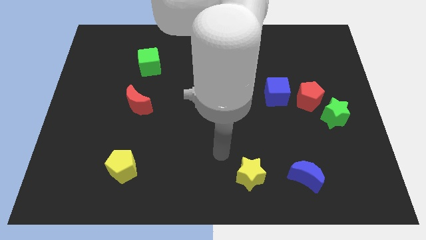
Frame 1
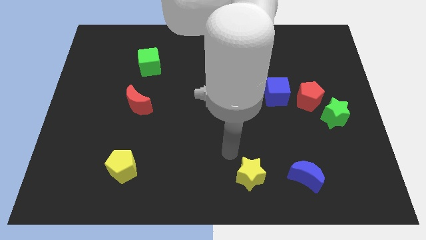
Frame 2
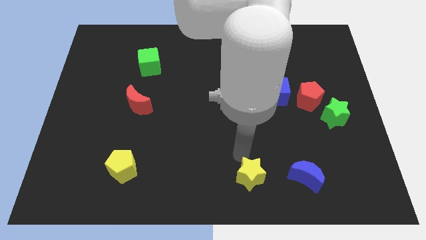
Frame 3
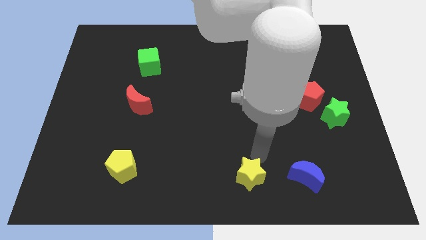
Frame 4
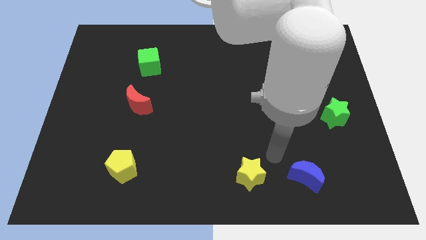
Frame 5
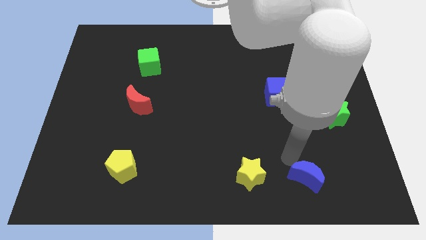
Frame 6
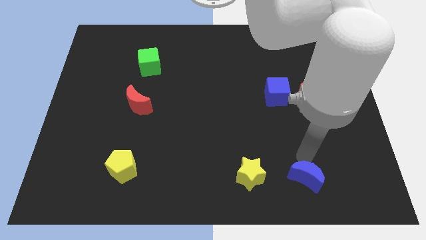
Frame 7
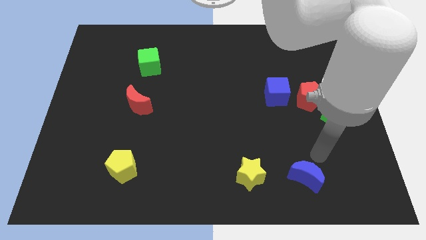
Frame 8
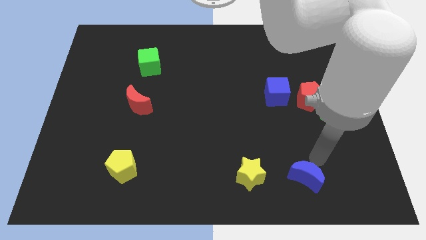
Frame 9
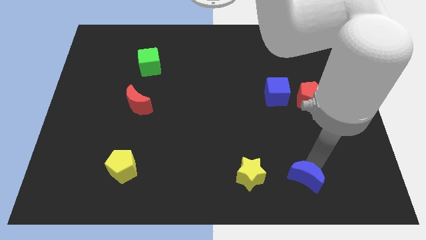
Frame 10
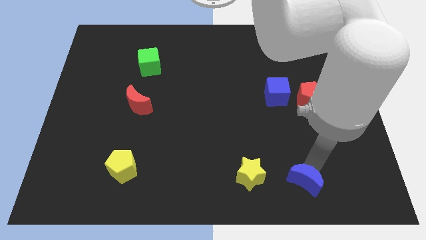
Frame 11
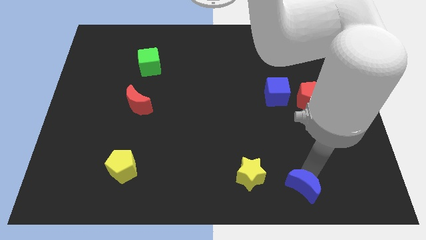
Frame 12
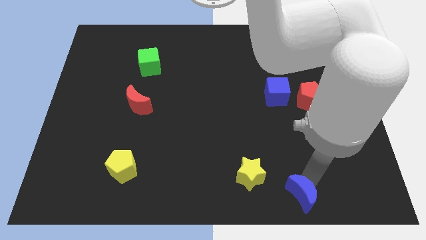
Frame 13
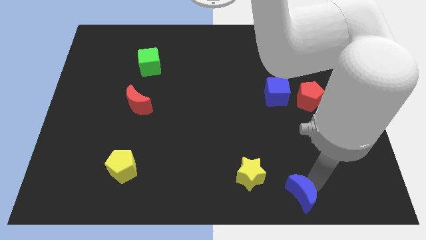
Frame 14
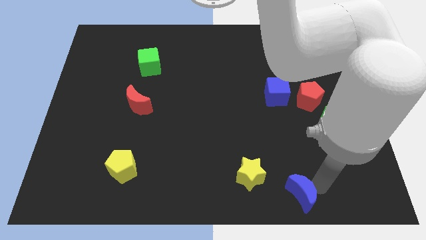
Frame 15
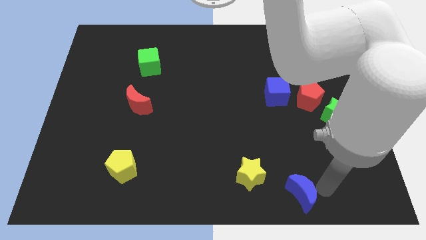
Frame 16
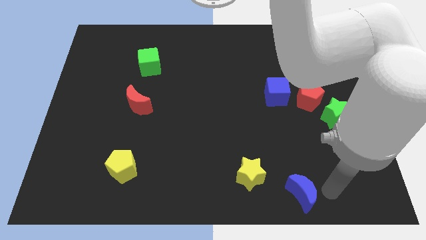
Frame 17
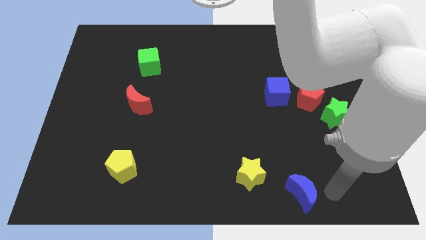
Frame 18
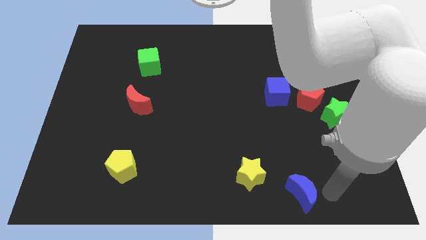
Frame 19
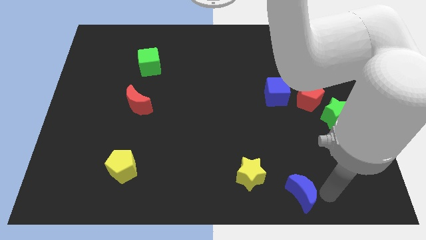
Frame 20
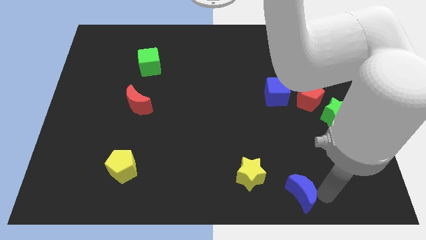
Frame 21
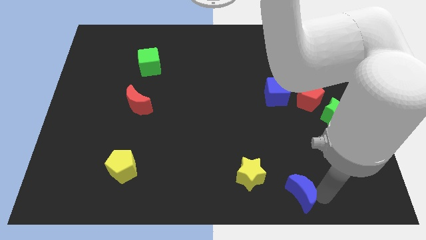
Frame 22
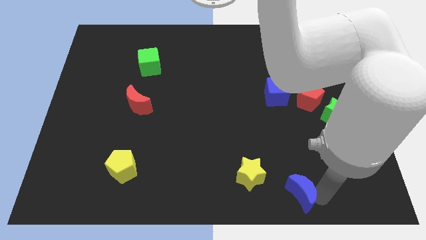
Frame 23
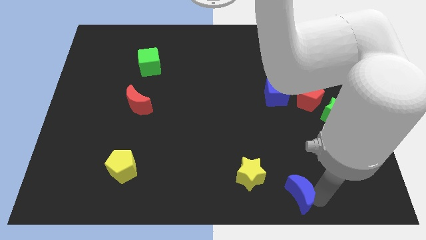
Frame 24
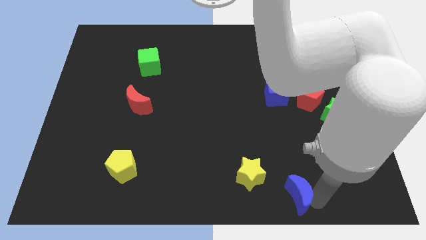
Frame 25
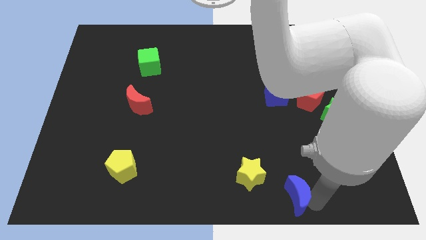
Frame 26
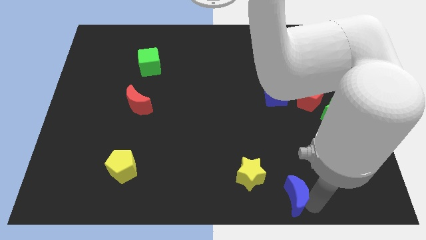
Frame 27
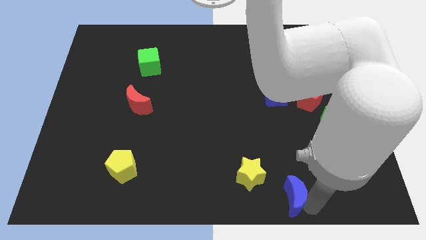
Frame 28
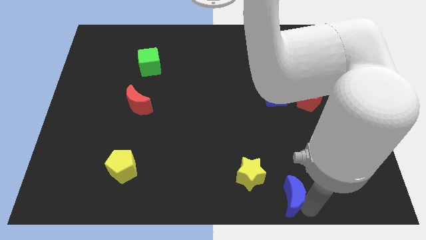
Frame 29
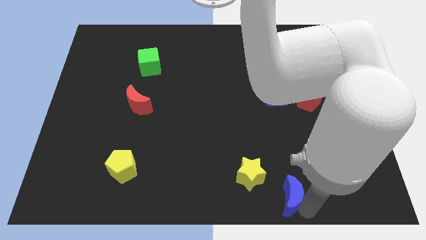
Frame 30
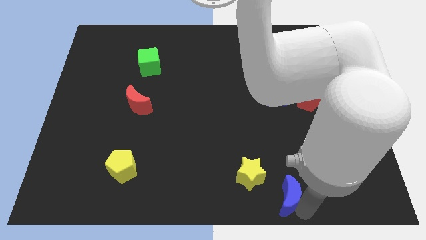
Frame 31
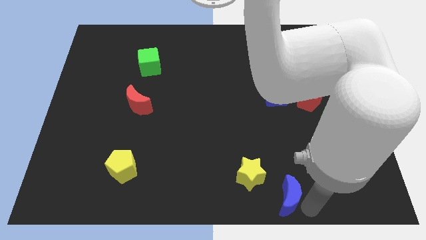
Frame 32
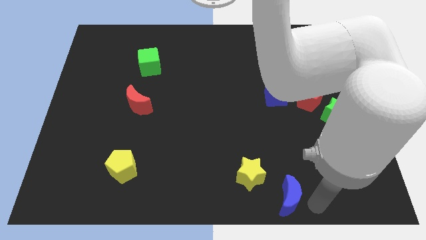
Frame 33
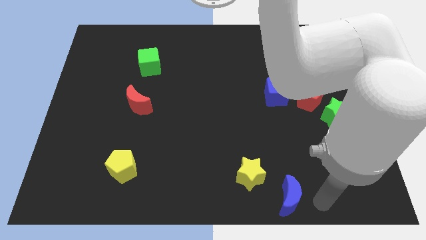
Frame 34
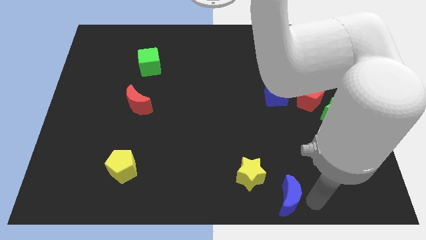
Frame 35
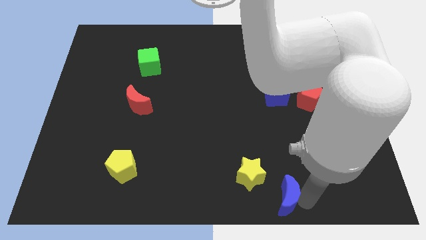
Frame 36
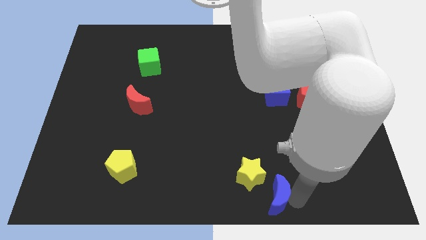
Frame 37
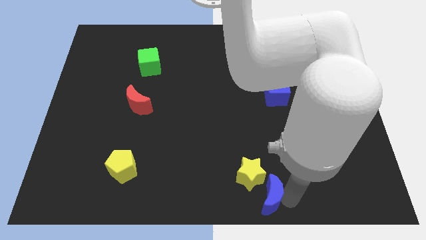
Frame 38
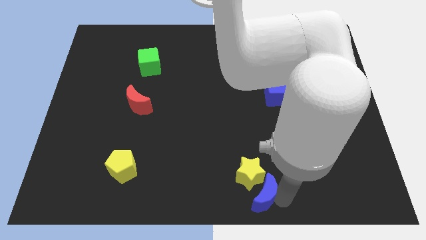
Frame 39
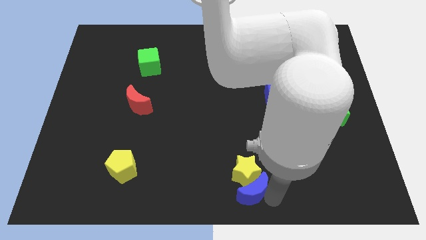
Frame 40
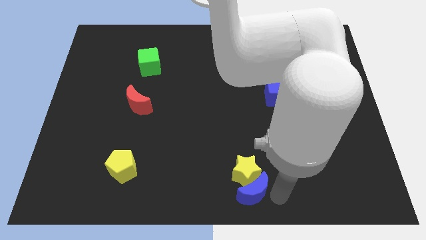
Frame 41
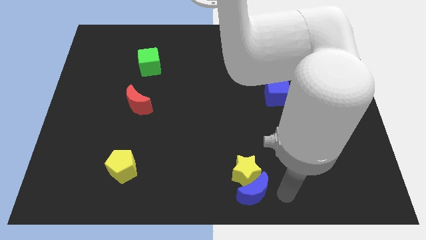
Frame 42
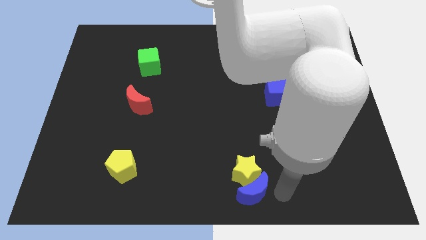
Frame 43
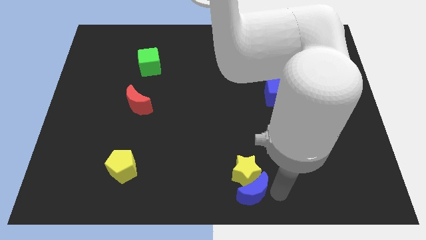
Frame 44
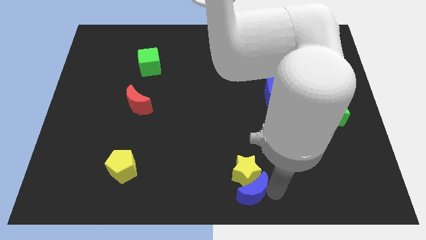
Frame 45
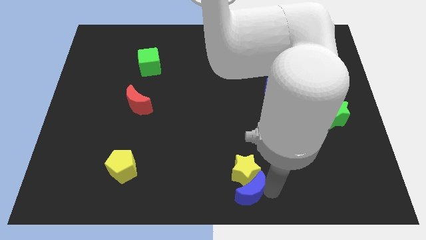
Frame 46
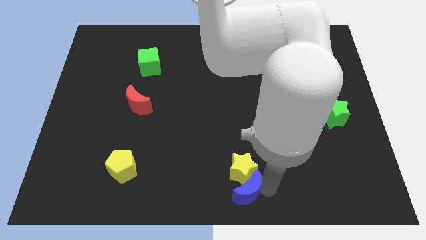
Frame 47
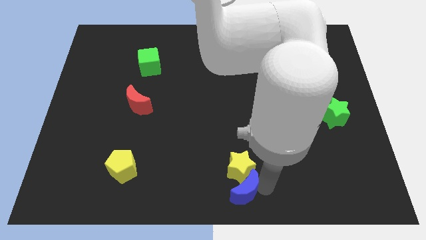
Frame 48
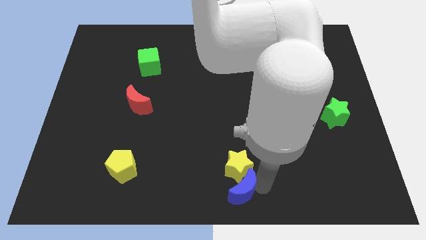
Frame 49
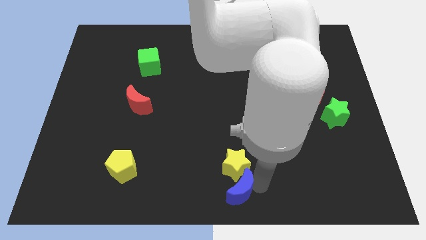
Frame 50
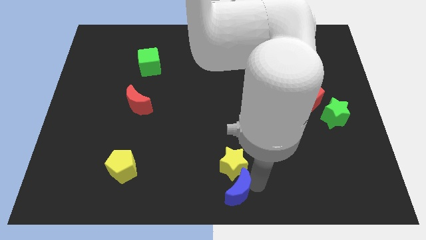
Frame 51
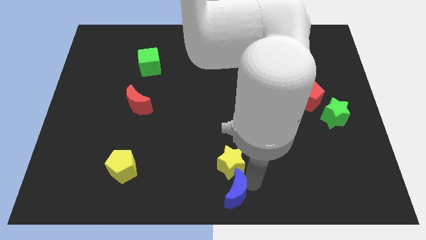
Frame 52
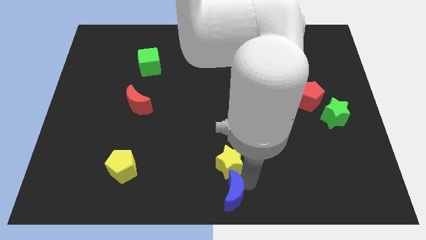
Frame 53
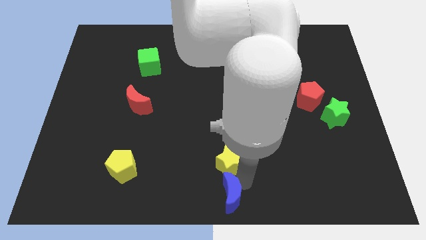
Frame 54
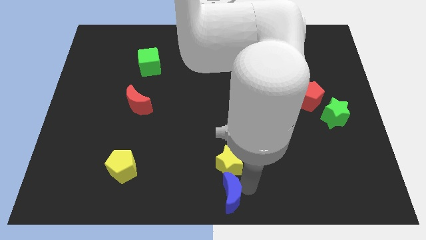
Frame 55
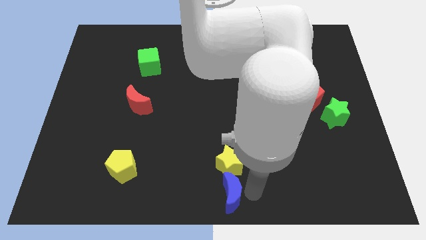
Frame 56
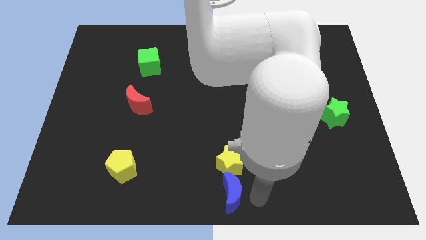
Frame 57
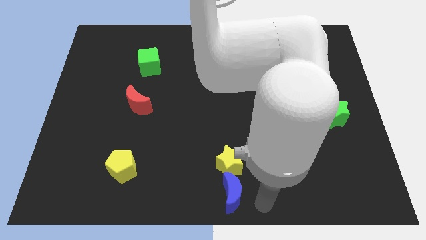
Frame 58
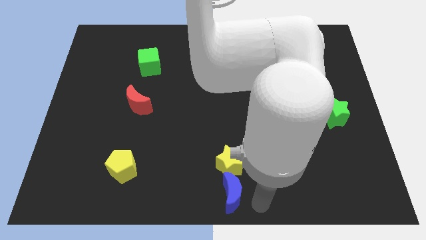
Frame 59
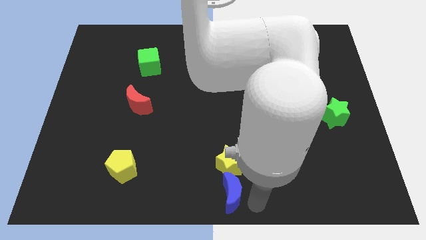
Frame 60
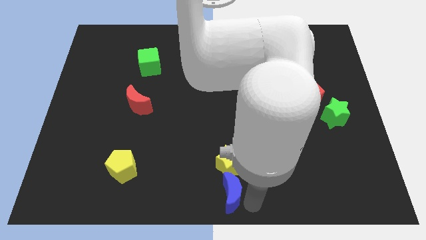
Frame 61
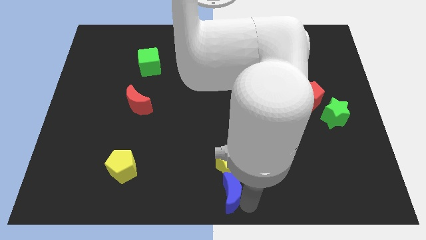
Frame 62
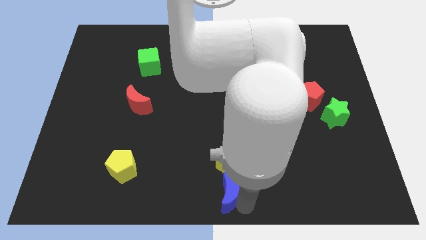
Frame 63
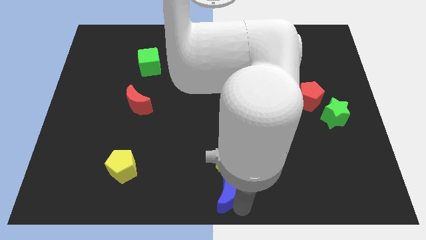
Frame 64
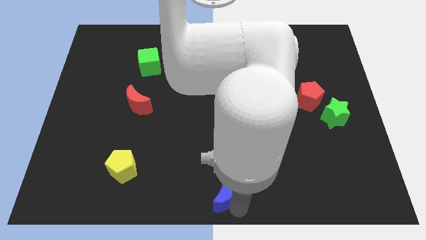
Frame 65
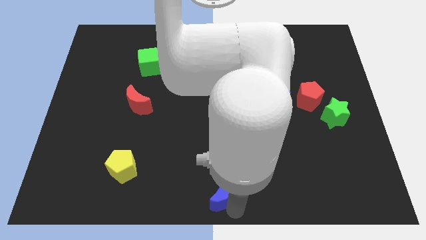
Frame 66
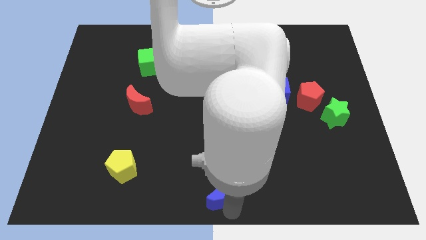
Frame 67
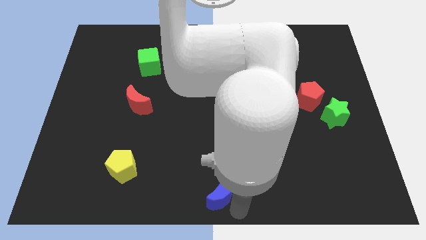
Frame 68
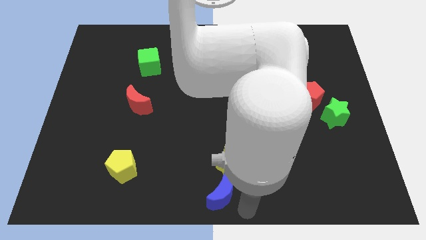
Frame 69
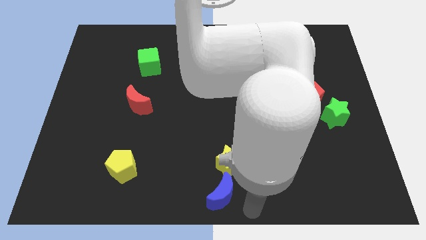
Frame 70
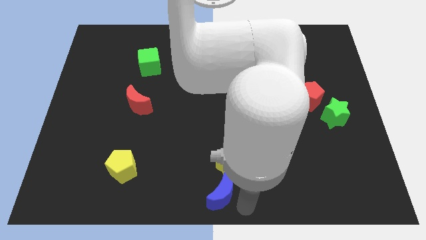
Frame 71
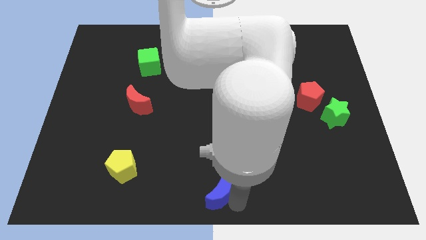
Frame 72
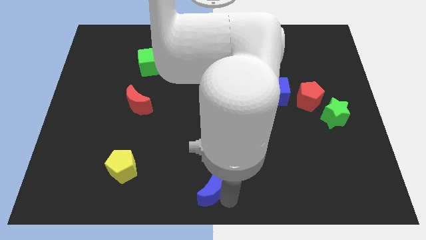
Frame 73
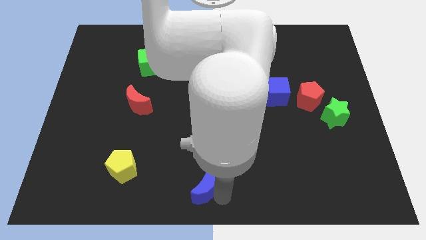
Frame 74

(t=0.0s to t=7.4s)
move the blue moon left

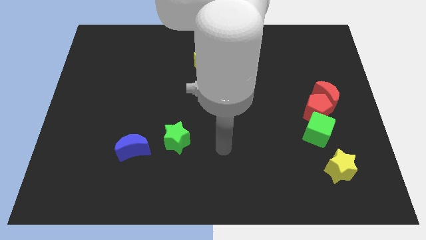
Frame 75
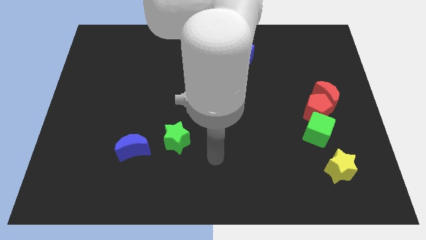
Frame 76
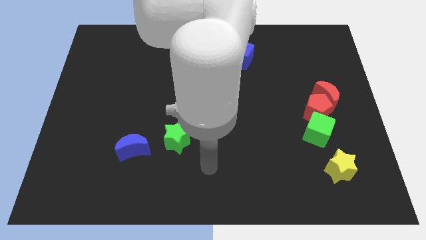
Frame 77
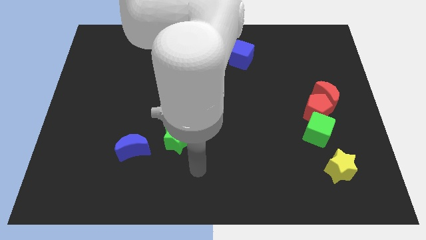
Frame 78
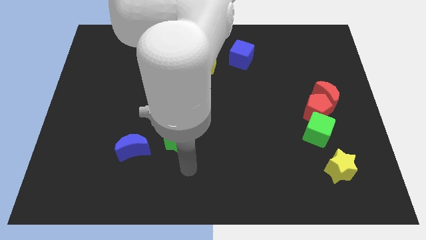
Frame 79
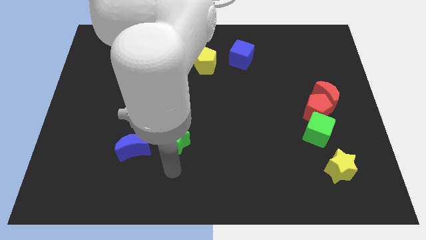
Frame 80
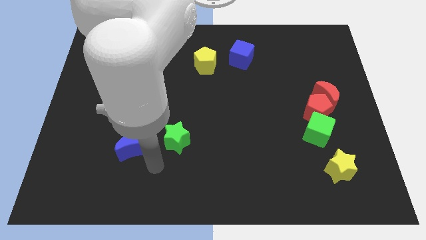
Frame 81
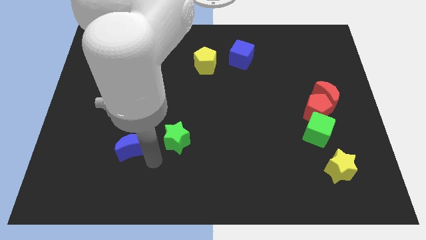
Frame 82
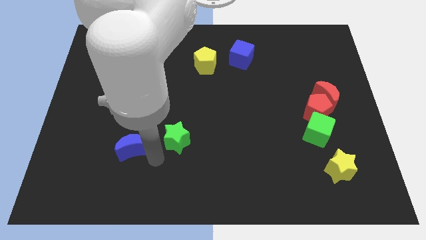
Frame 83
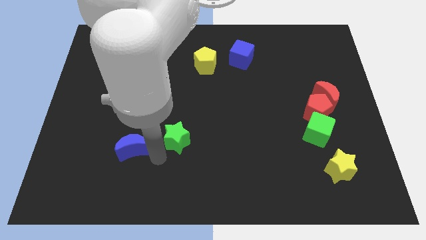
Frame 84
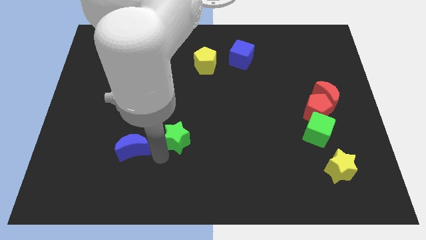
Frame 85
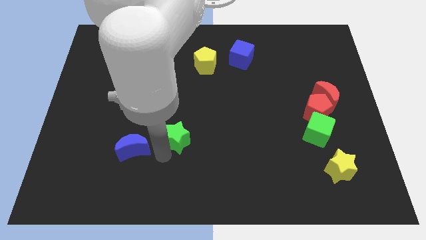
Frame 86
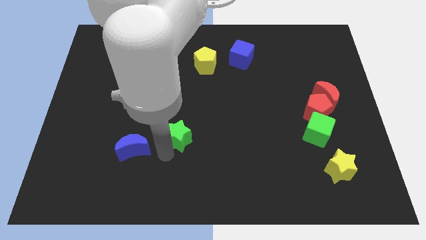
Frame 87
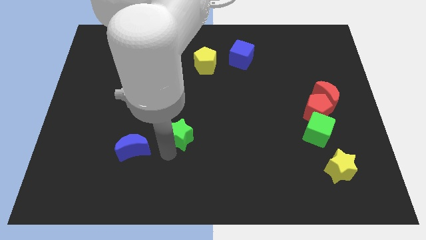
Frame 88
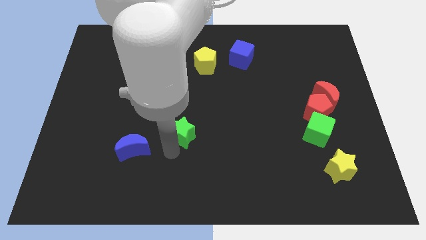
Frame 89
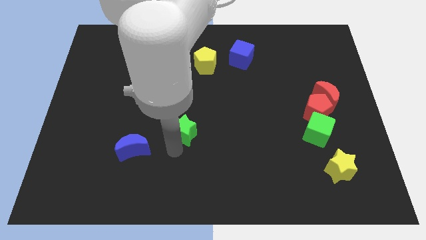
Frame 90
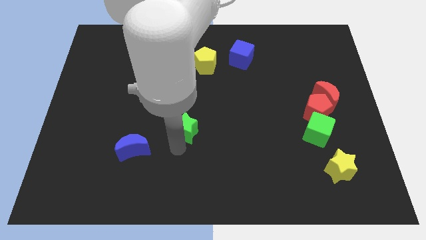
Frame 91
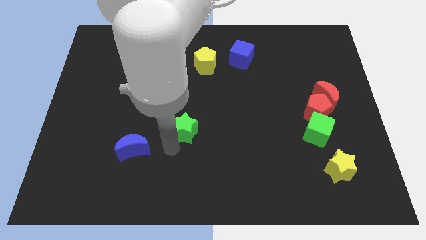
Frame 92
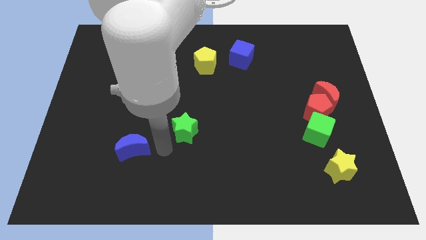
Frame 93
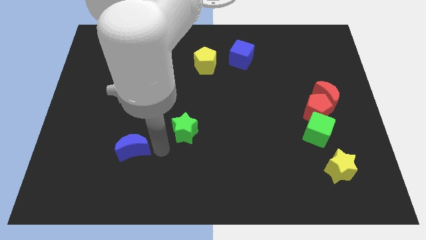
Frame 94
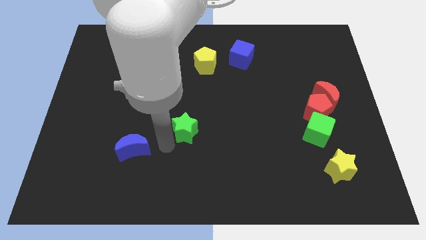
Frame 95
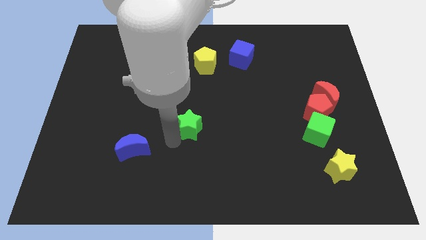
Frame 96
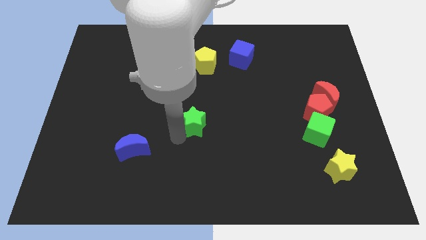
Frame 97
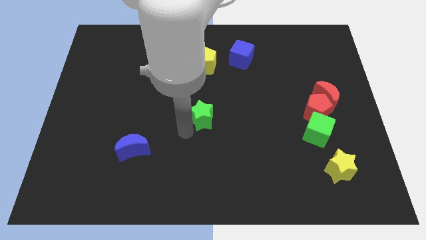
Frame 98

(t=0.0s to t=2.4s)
slide the green star slightly upwards and then to the right
